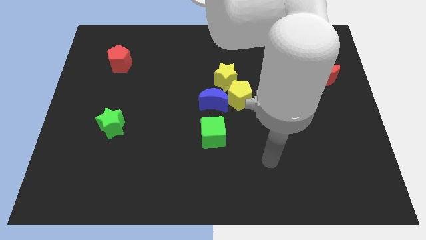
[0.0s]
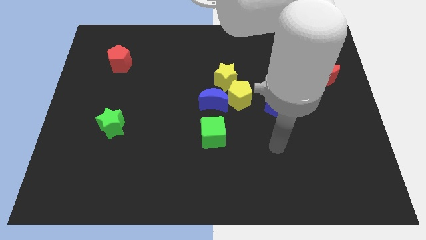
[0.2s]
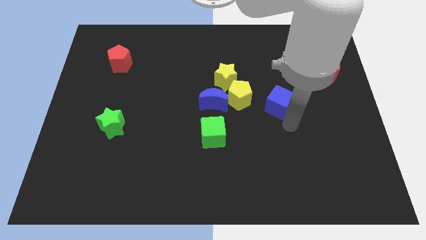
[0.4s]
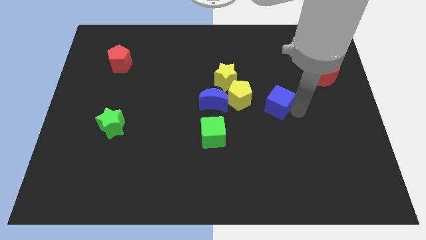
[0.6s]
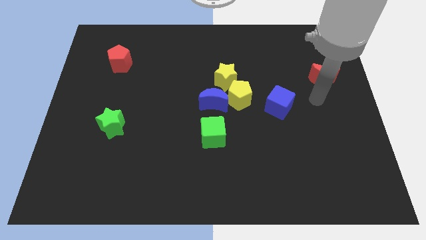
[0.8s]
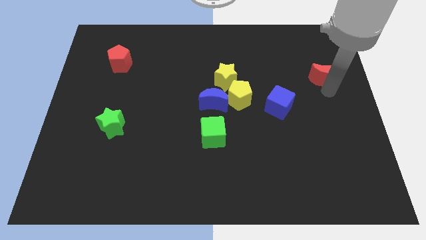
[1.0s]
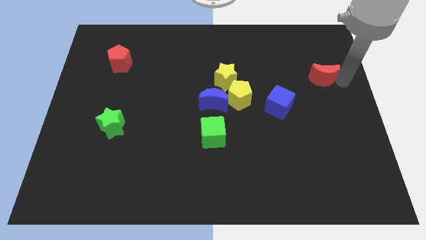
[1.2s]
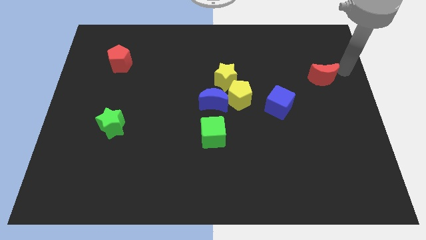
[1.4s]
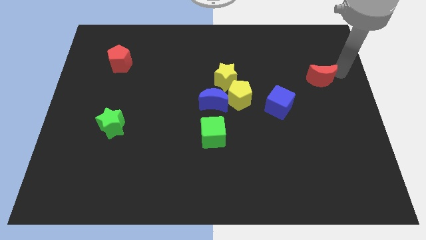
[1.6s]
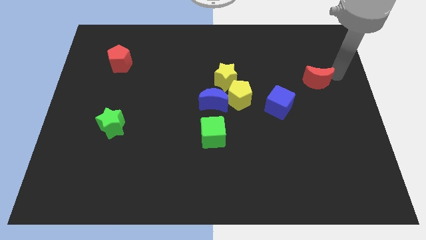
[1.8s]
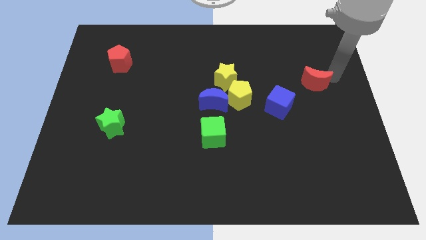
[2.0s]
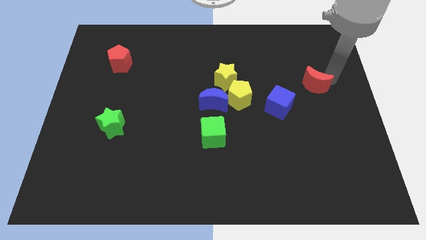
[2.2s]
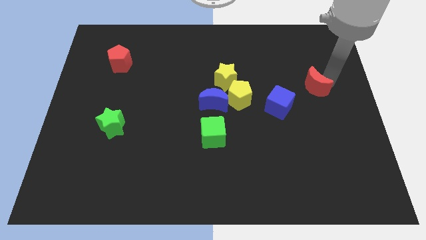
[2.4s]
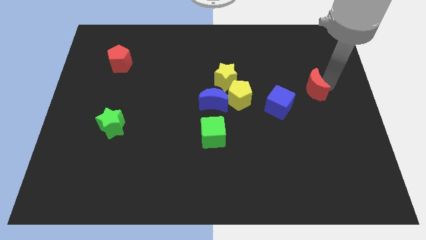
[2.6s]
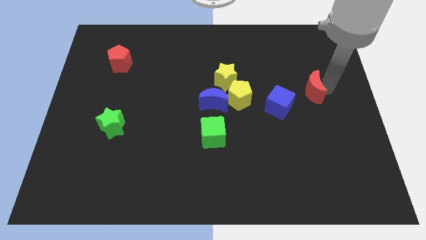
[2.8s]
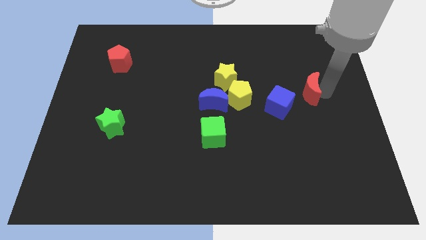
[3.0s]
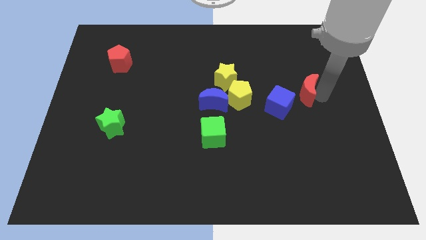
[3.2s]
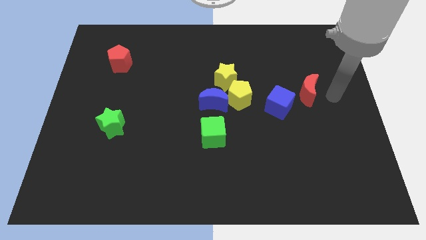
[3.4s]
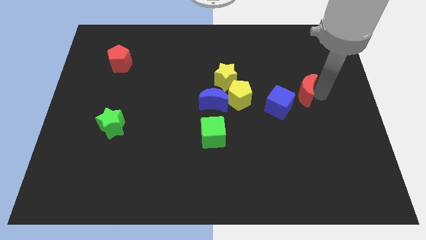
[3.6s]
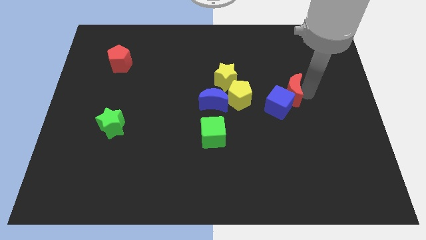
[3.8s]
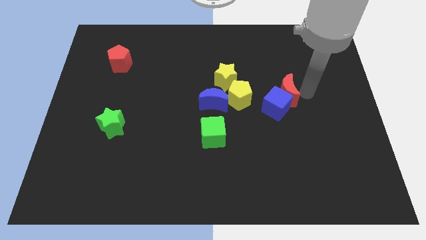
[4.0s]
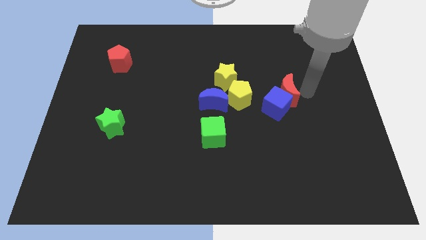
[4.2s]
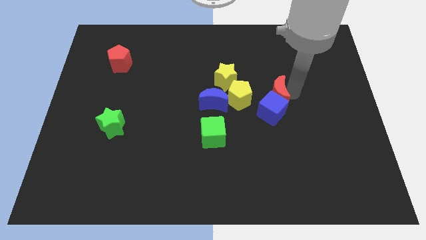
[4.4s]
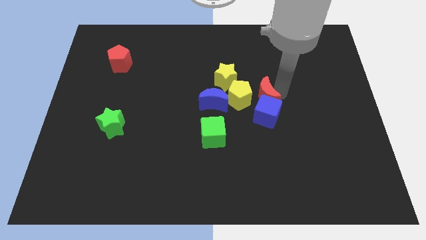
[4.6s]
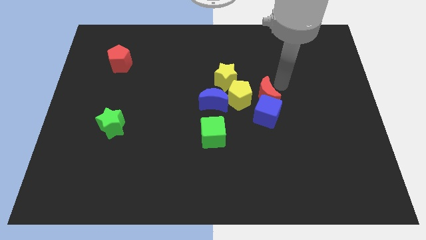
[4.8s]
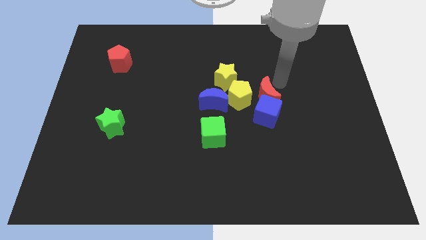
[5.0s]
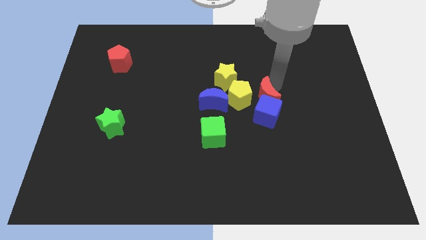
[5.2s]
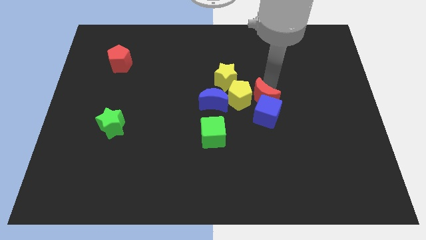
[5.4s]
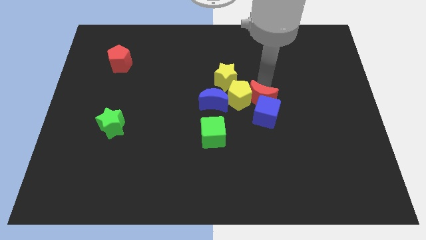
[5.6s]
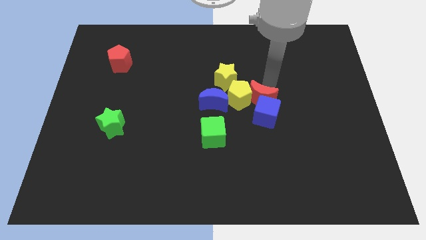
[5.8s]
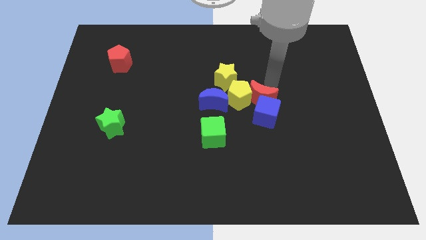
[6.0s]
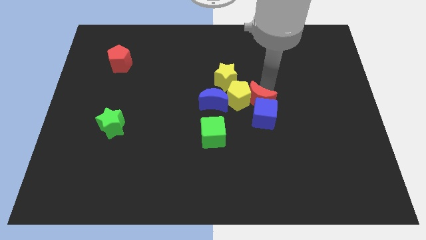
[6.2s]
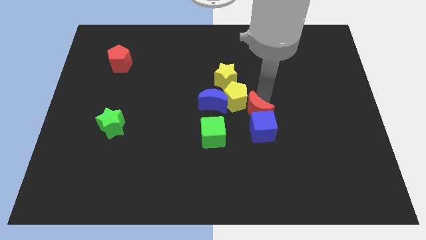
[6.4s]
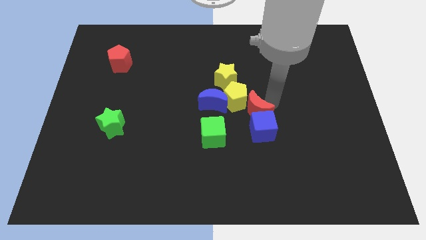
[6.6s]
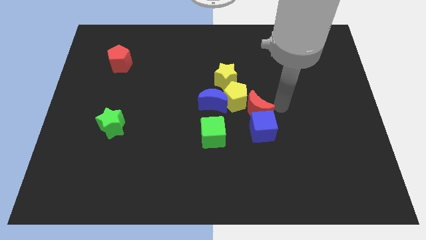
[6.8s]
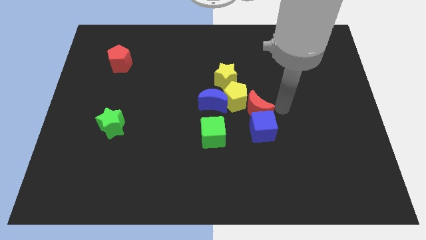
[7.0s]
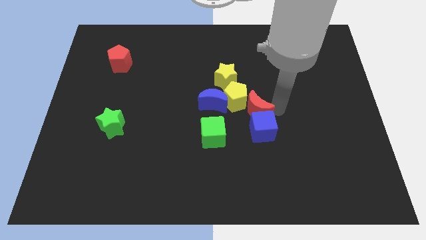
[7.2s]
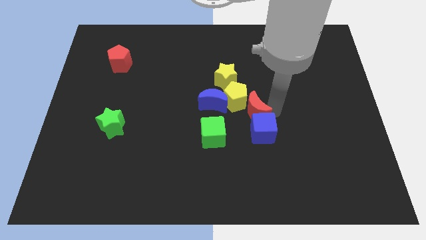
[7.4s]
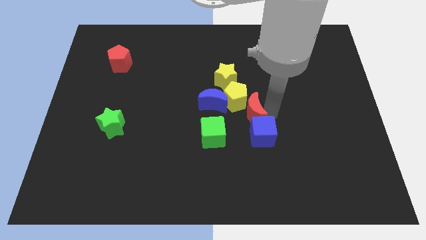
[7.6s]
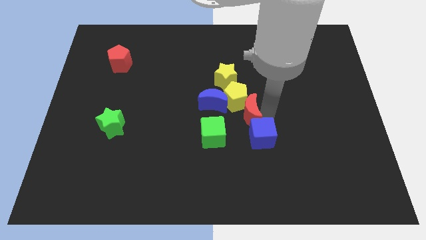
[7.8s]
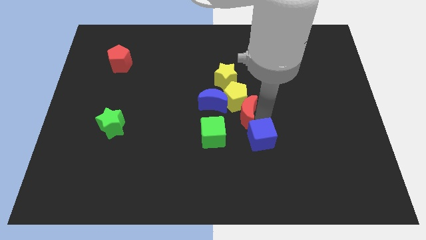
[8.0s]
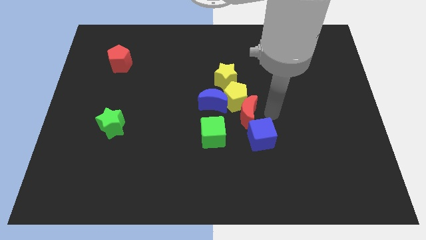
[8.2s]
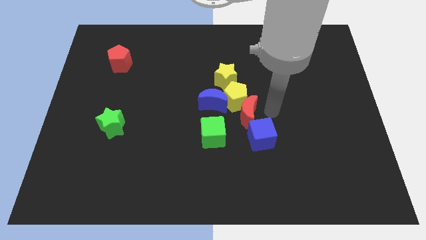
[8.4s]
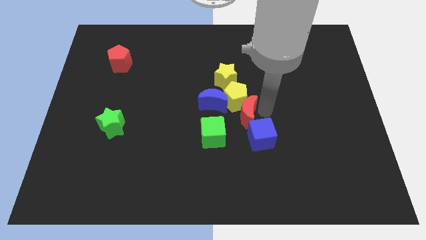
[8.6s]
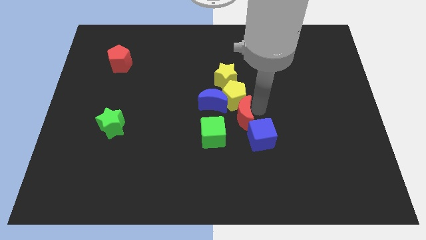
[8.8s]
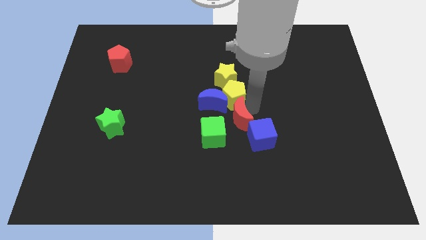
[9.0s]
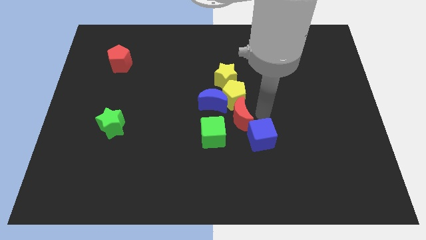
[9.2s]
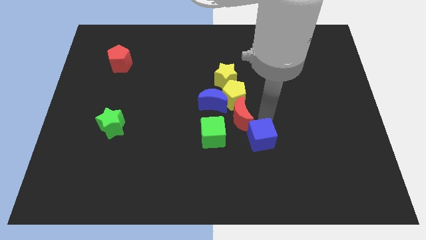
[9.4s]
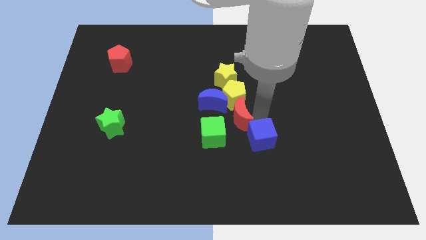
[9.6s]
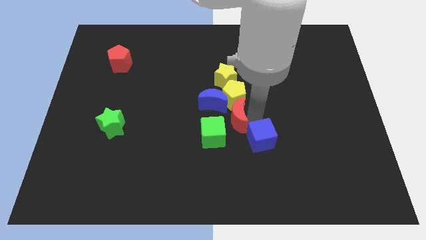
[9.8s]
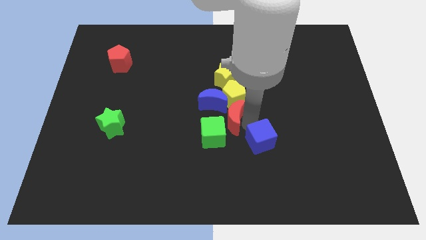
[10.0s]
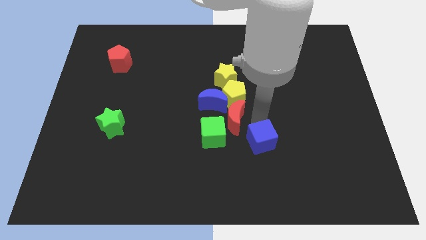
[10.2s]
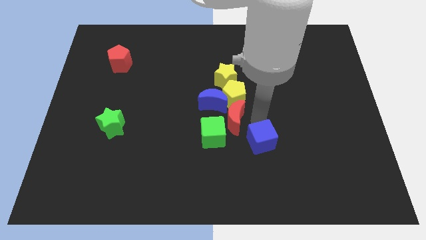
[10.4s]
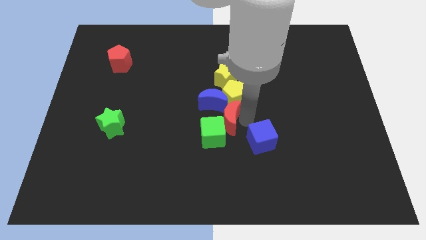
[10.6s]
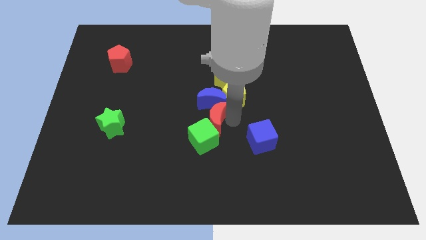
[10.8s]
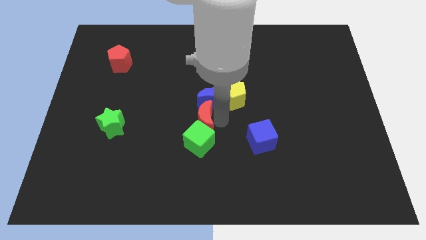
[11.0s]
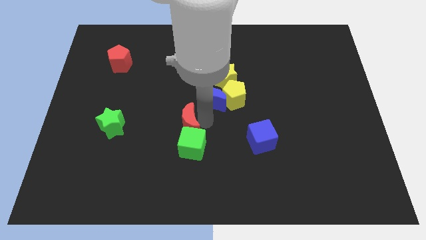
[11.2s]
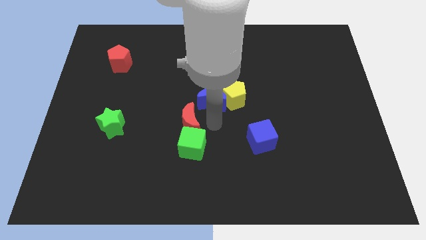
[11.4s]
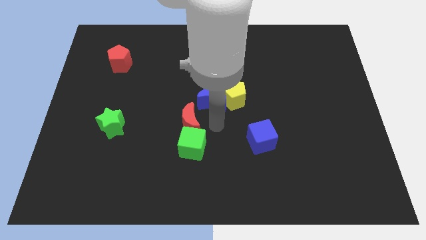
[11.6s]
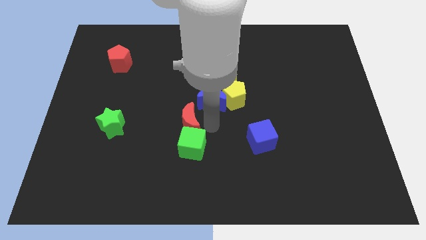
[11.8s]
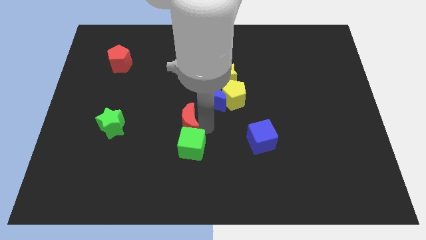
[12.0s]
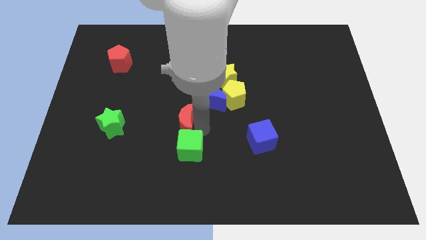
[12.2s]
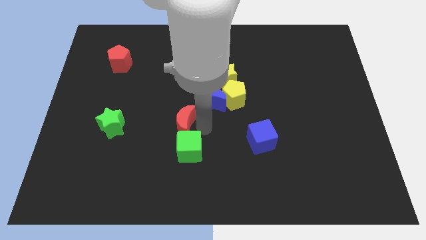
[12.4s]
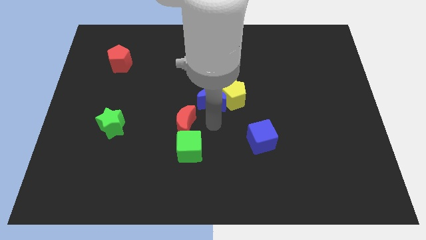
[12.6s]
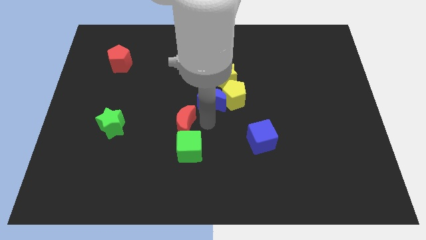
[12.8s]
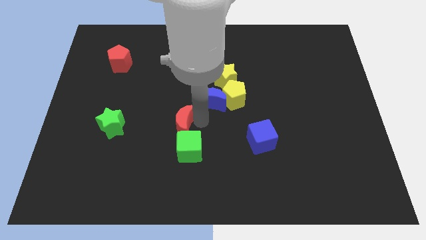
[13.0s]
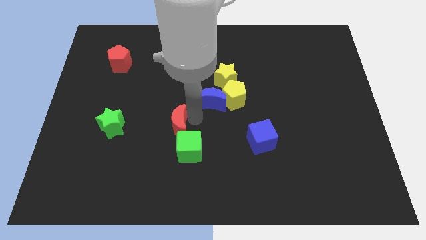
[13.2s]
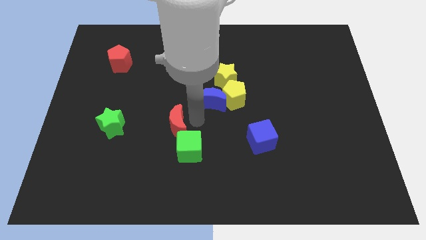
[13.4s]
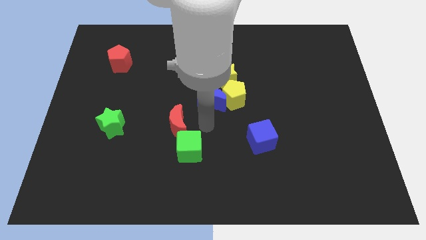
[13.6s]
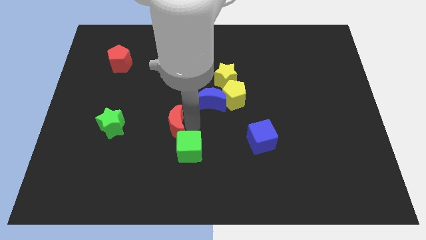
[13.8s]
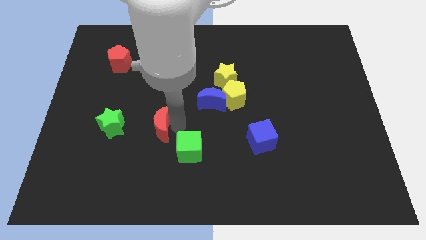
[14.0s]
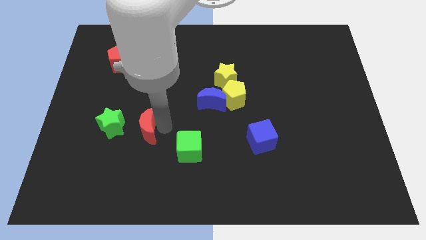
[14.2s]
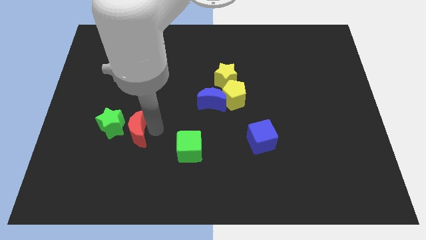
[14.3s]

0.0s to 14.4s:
move the red moon close to the green star

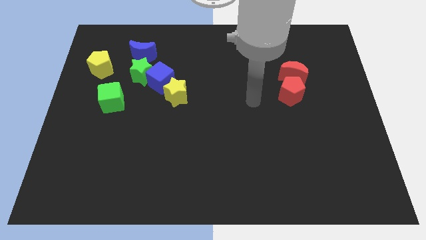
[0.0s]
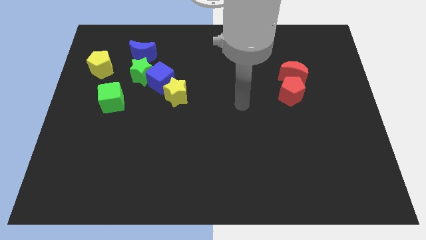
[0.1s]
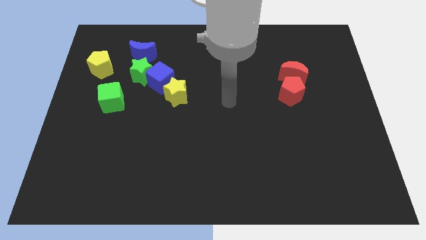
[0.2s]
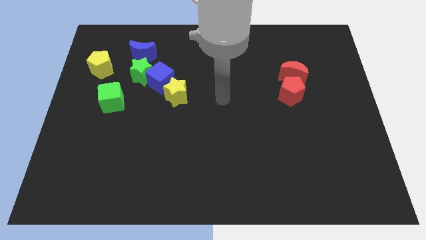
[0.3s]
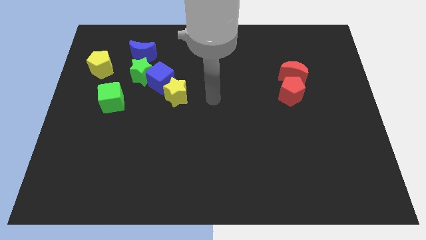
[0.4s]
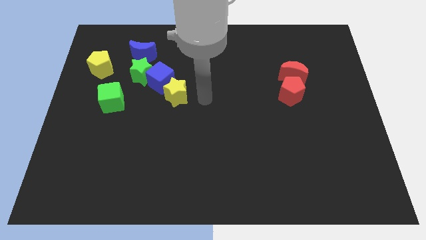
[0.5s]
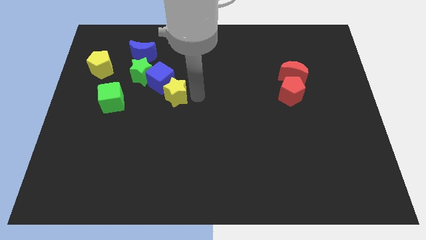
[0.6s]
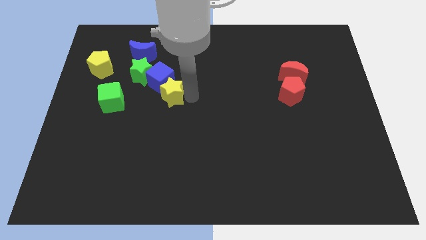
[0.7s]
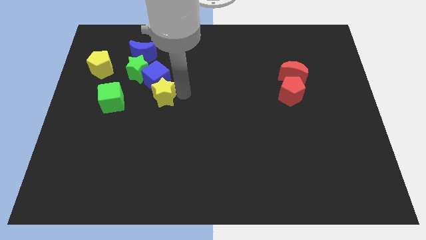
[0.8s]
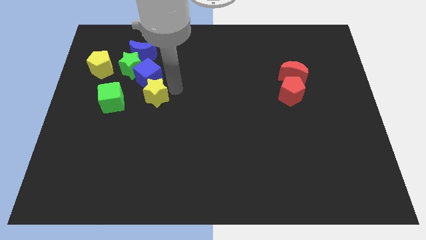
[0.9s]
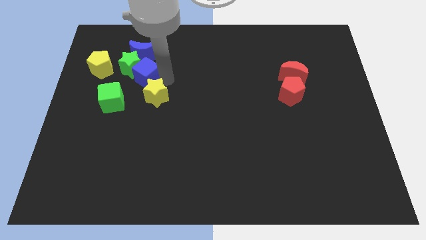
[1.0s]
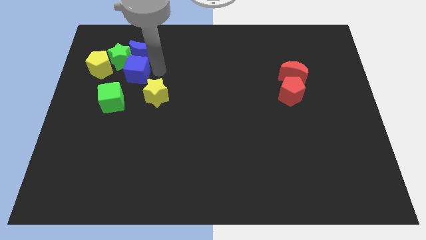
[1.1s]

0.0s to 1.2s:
move the green star to the yellow pentagon
